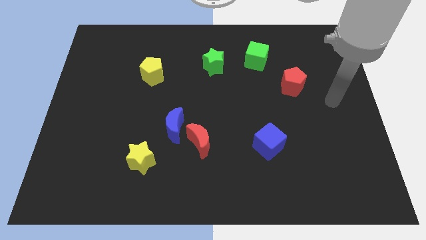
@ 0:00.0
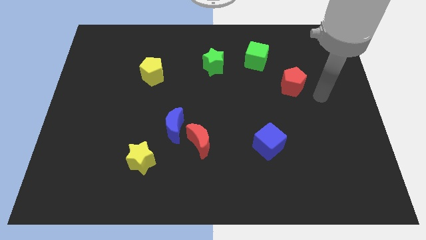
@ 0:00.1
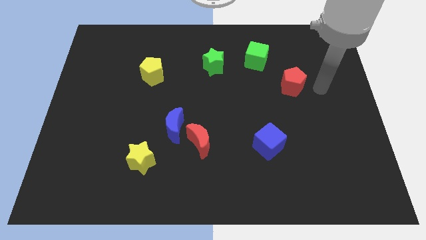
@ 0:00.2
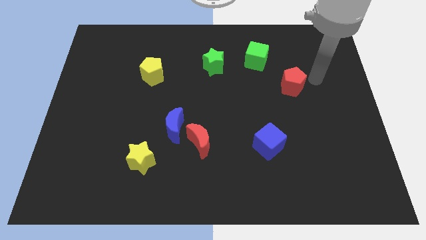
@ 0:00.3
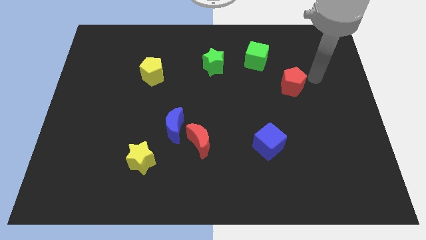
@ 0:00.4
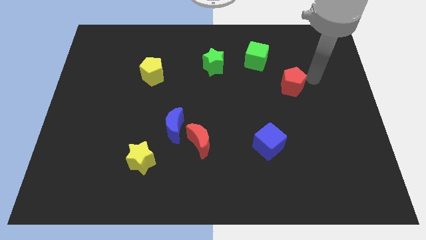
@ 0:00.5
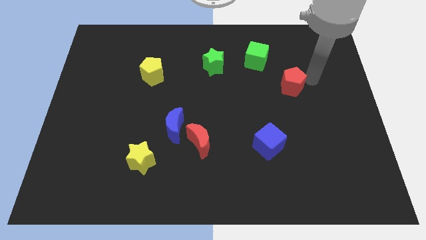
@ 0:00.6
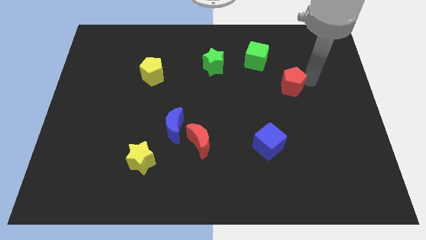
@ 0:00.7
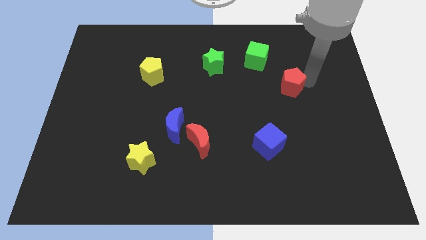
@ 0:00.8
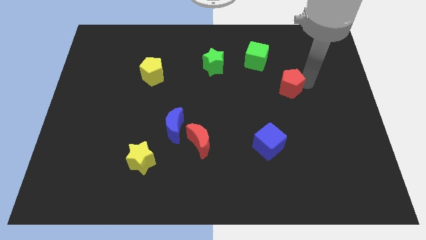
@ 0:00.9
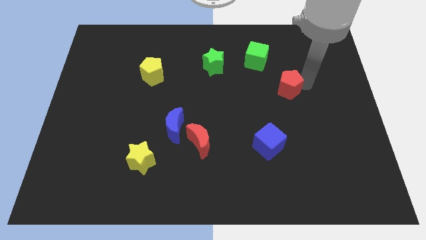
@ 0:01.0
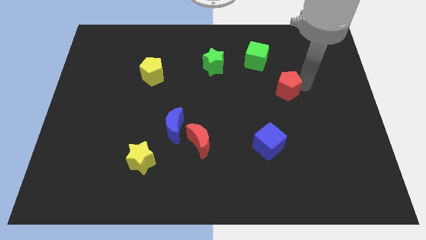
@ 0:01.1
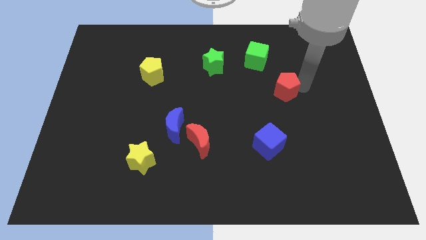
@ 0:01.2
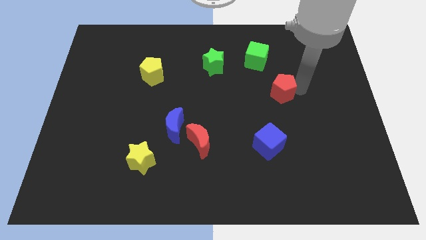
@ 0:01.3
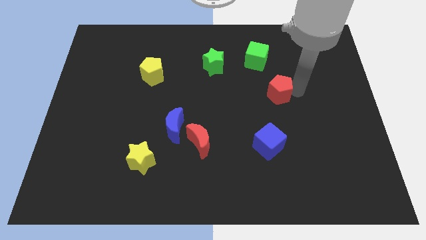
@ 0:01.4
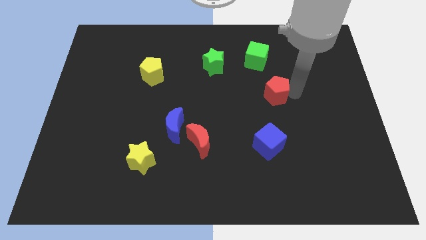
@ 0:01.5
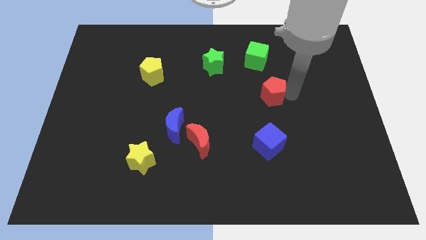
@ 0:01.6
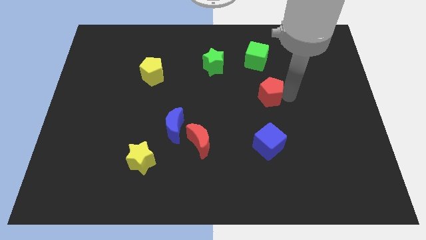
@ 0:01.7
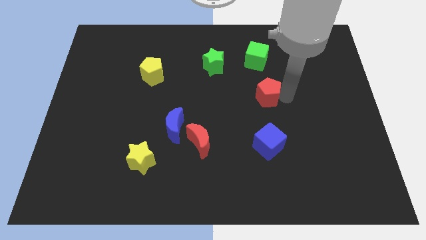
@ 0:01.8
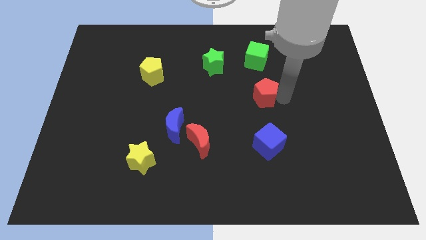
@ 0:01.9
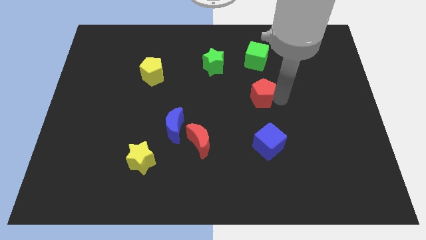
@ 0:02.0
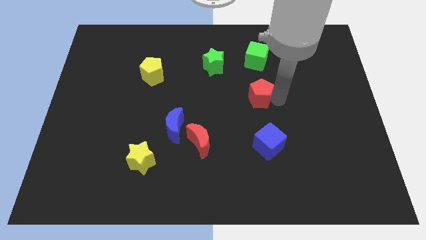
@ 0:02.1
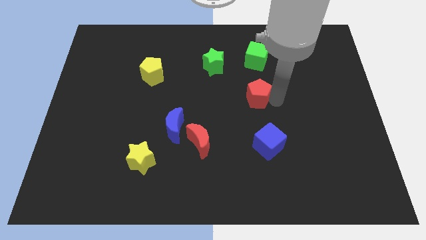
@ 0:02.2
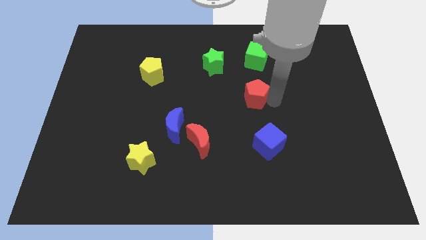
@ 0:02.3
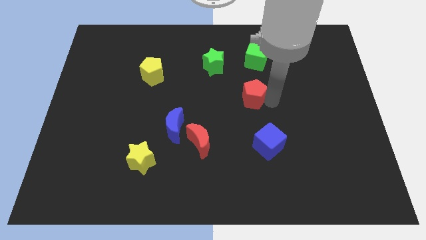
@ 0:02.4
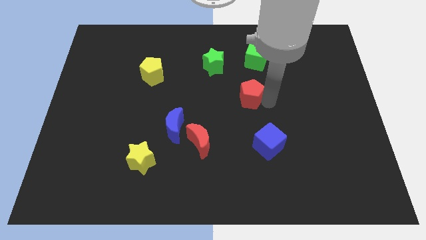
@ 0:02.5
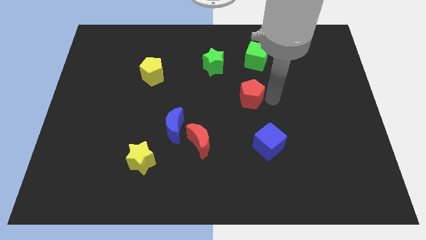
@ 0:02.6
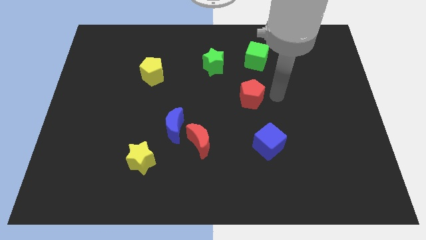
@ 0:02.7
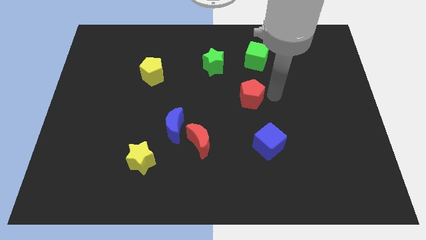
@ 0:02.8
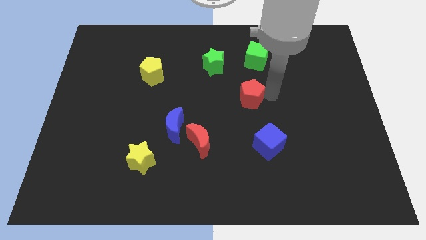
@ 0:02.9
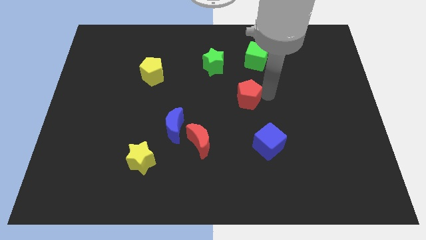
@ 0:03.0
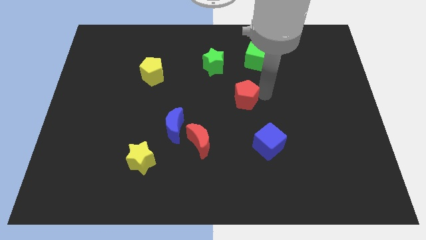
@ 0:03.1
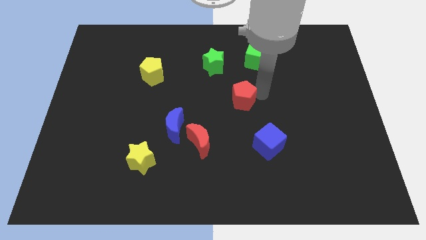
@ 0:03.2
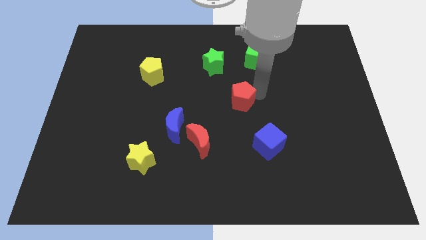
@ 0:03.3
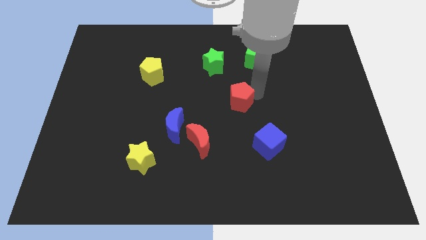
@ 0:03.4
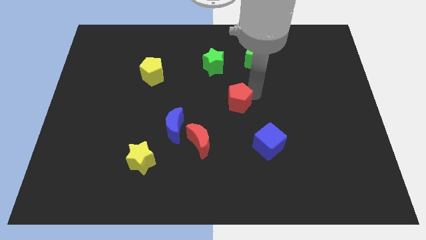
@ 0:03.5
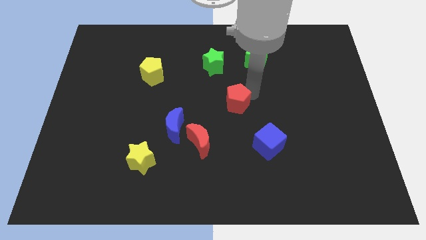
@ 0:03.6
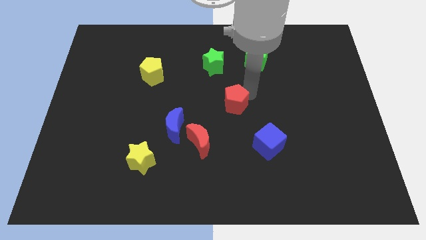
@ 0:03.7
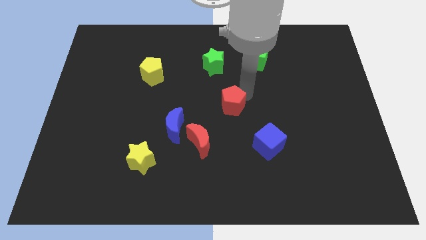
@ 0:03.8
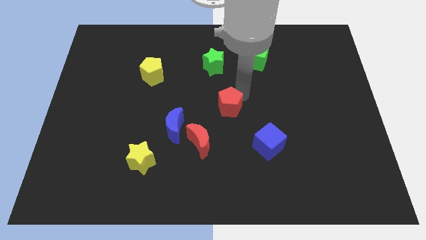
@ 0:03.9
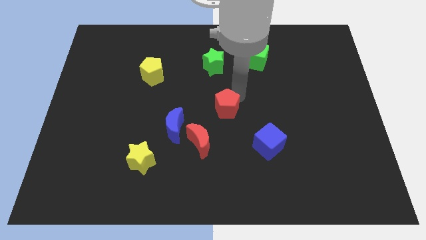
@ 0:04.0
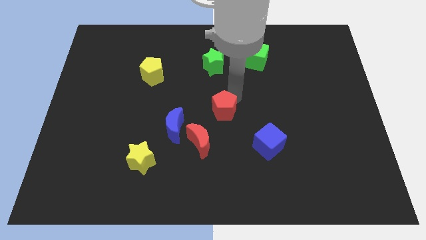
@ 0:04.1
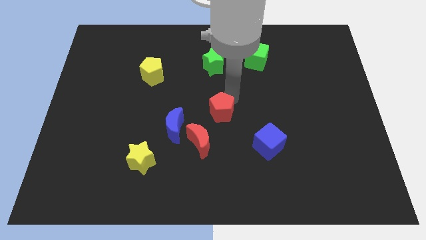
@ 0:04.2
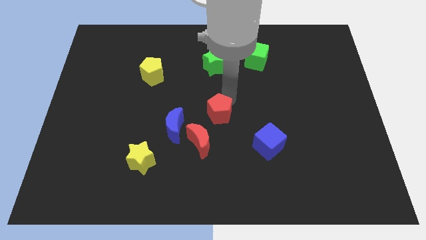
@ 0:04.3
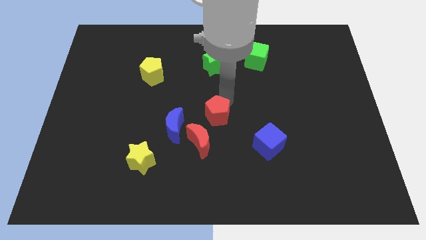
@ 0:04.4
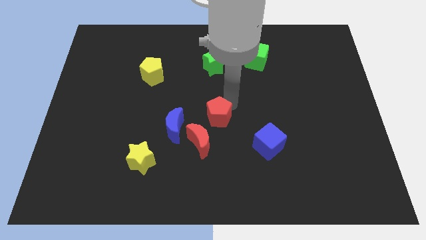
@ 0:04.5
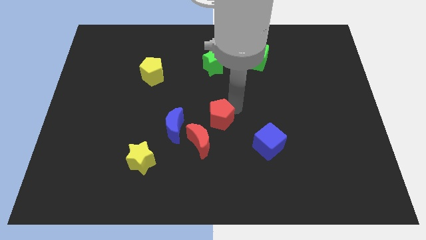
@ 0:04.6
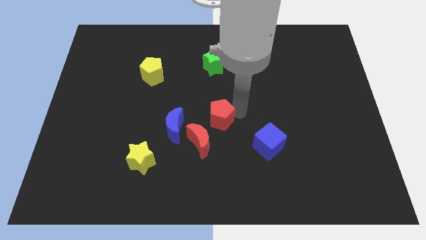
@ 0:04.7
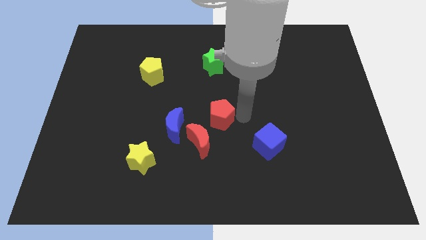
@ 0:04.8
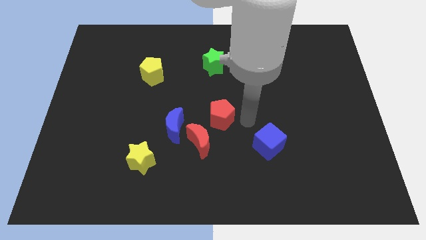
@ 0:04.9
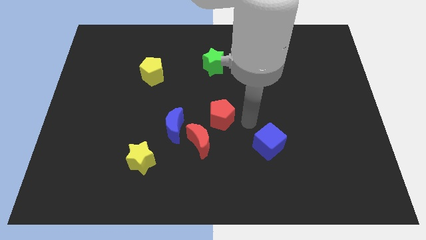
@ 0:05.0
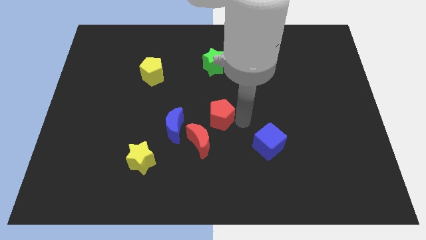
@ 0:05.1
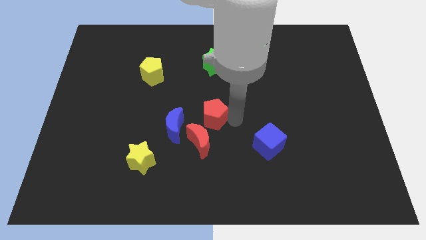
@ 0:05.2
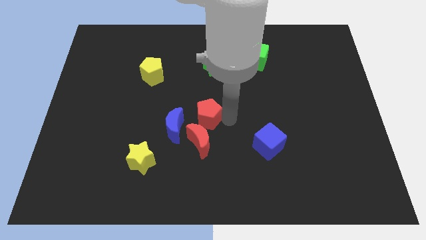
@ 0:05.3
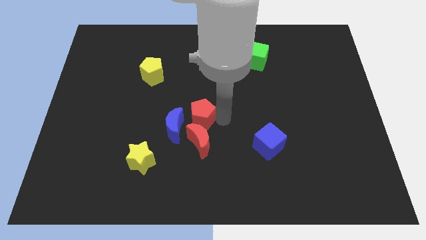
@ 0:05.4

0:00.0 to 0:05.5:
move the red pentagon to the top left side of the red moon

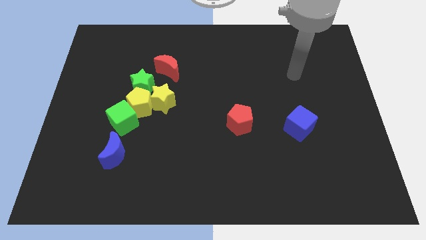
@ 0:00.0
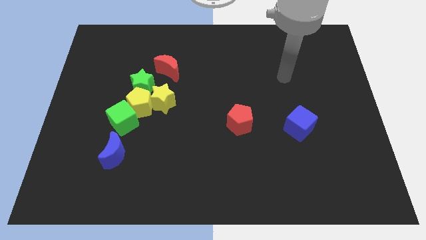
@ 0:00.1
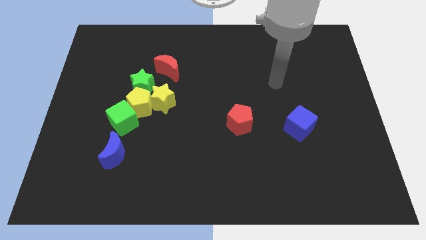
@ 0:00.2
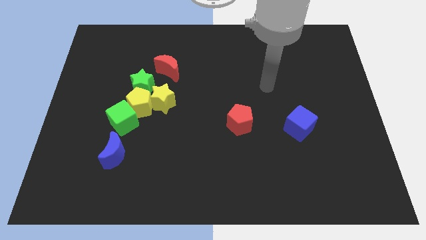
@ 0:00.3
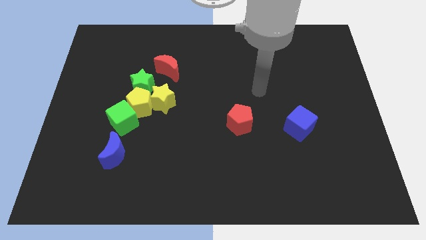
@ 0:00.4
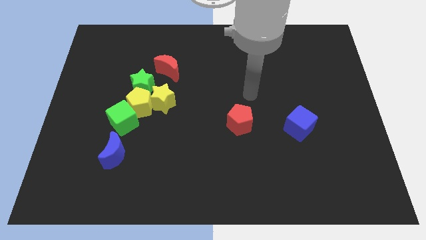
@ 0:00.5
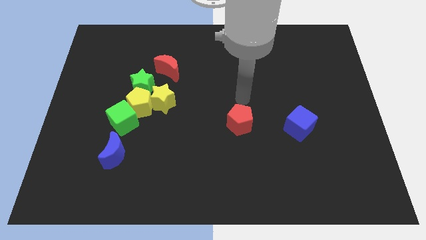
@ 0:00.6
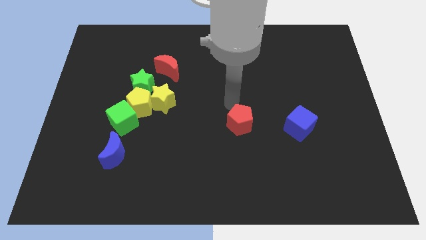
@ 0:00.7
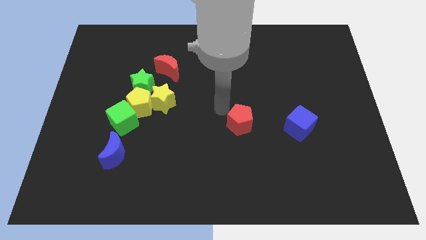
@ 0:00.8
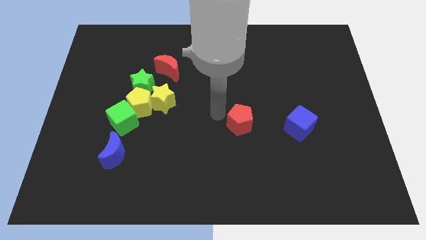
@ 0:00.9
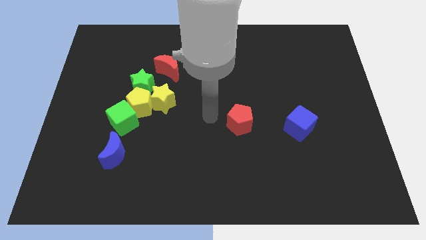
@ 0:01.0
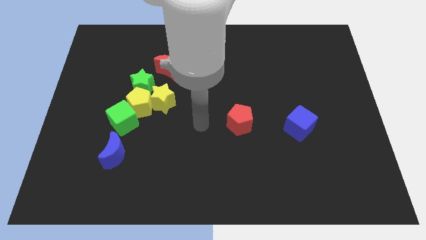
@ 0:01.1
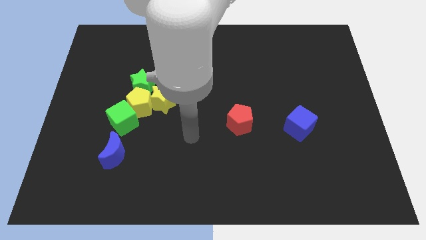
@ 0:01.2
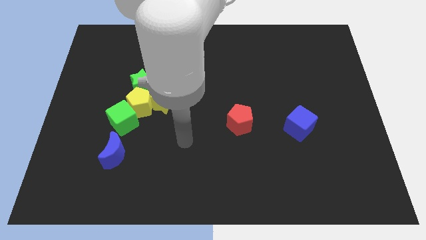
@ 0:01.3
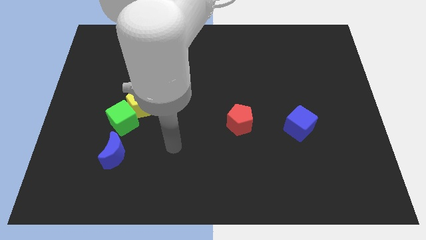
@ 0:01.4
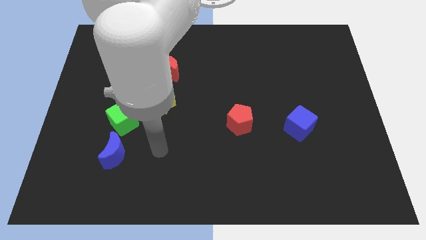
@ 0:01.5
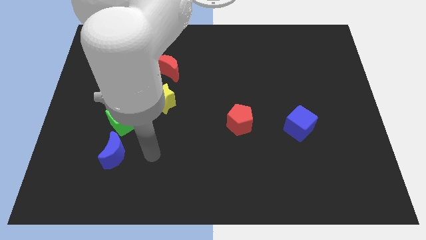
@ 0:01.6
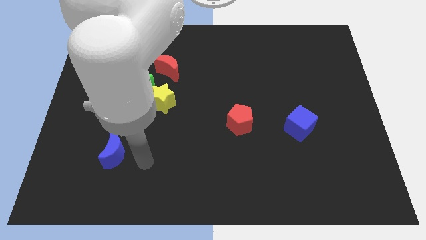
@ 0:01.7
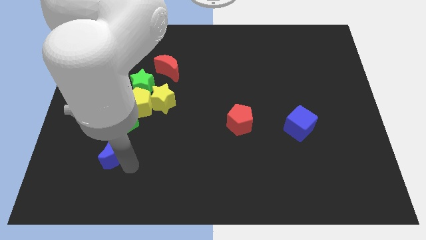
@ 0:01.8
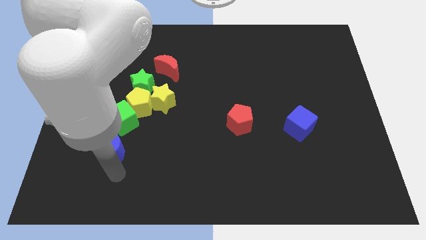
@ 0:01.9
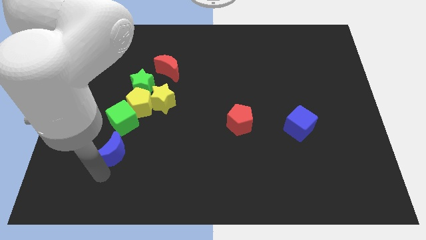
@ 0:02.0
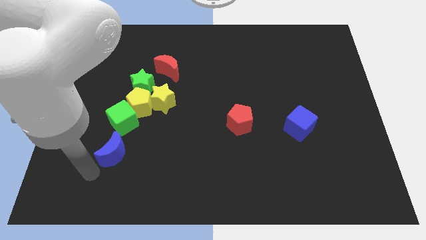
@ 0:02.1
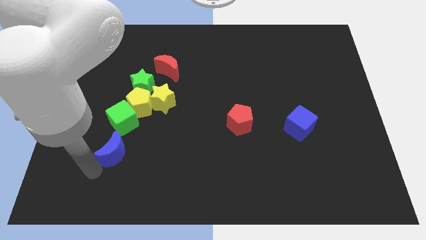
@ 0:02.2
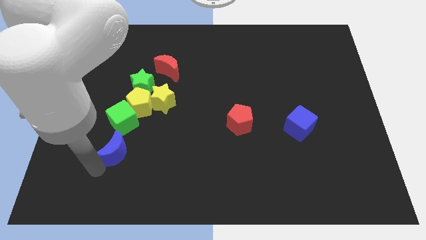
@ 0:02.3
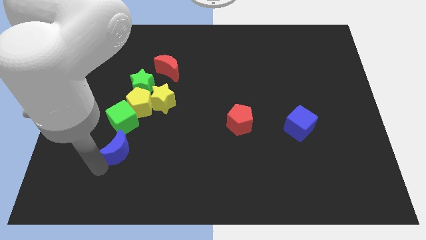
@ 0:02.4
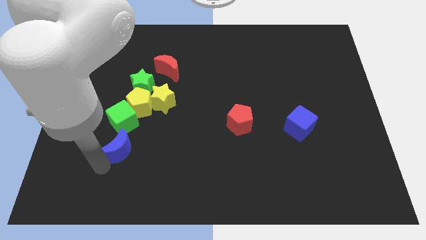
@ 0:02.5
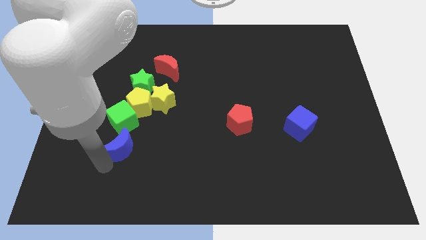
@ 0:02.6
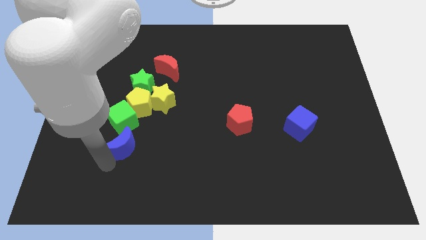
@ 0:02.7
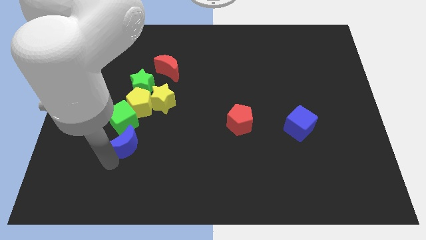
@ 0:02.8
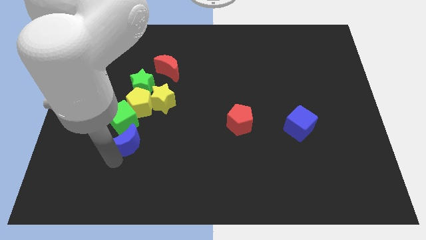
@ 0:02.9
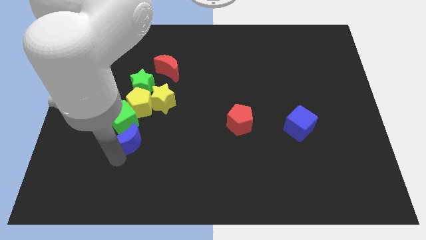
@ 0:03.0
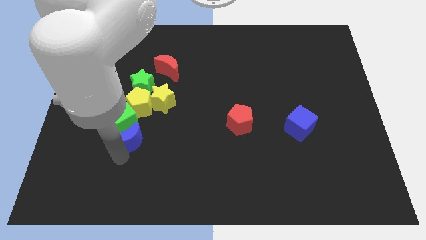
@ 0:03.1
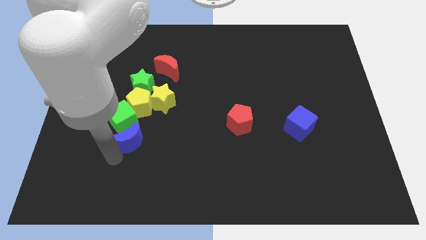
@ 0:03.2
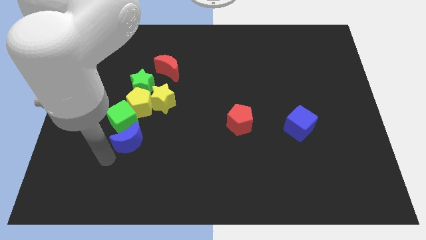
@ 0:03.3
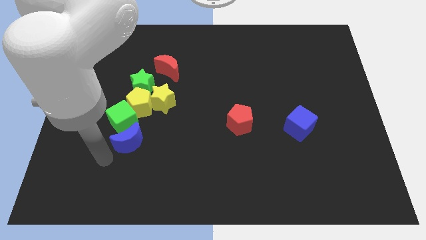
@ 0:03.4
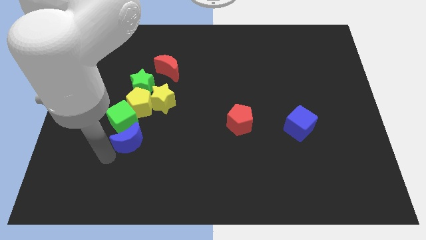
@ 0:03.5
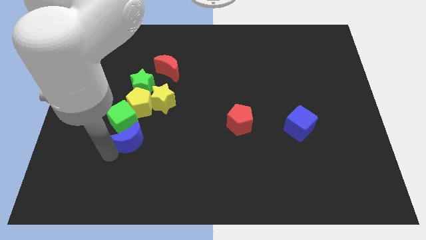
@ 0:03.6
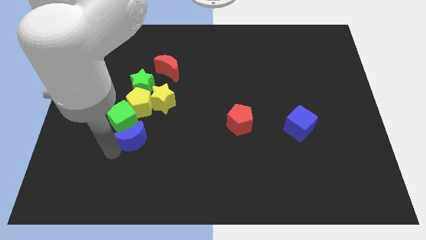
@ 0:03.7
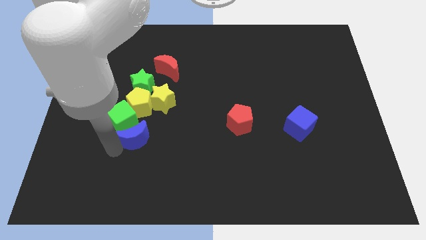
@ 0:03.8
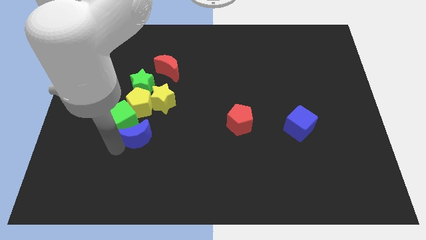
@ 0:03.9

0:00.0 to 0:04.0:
move the blue moon just right of the green cube
